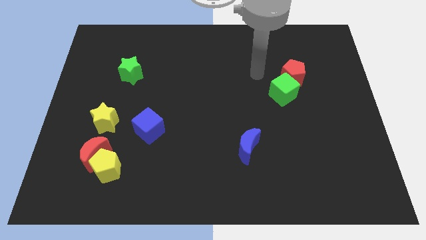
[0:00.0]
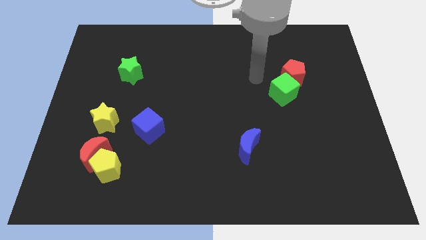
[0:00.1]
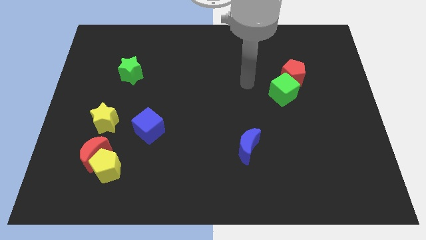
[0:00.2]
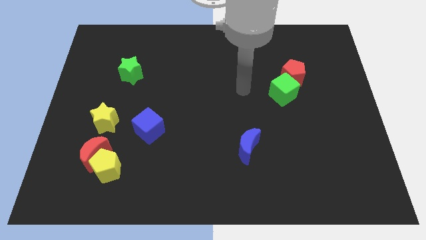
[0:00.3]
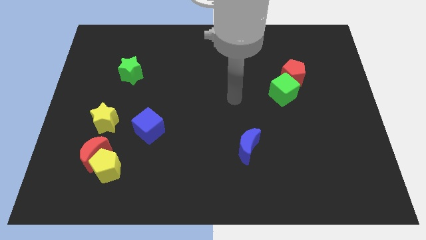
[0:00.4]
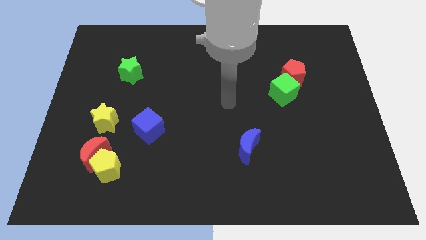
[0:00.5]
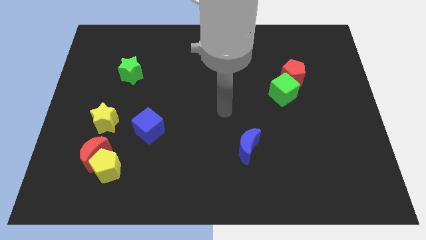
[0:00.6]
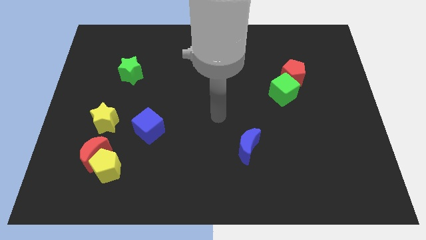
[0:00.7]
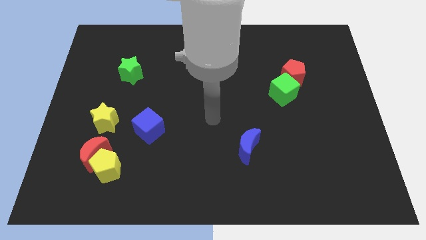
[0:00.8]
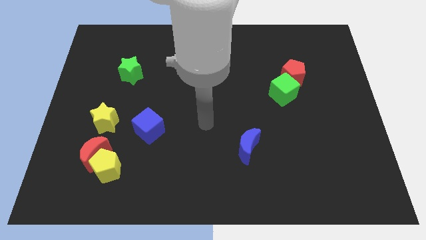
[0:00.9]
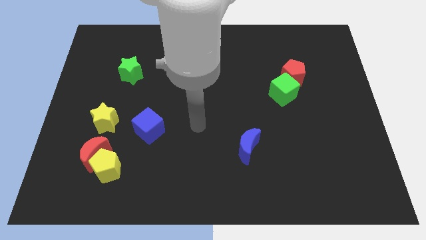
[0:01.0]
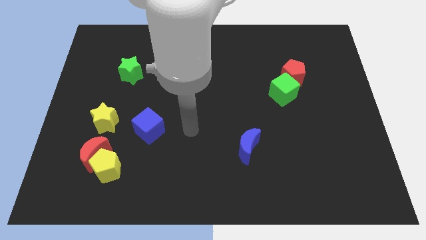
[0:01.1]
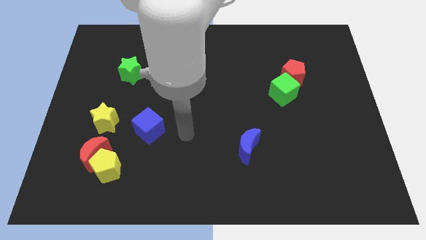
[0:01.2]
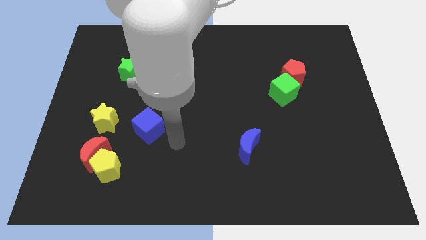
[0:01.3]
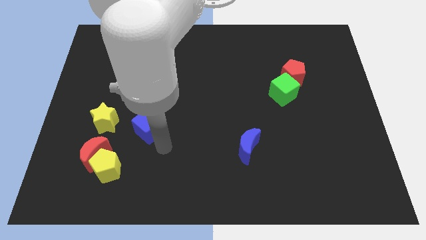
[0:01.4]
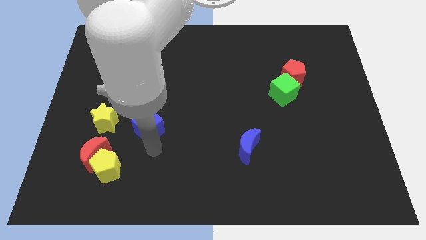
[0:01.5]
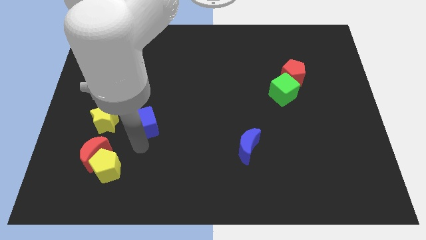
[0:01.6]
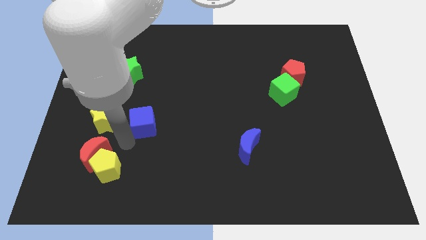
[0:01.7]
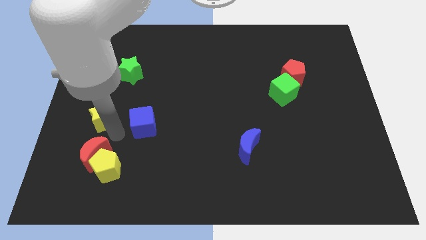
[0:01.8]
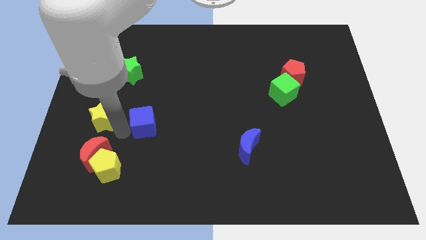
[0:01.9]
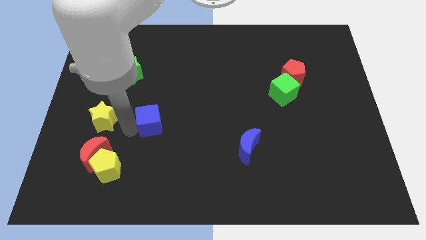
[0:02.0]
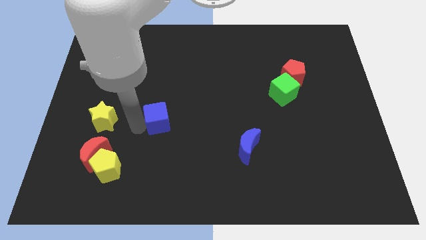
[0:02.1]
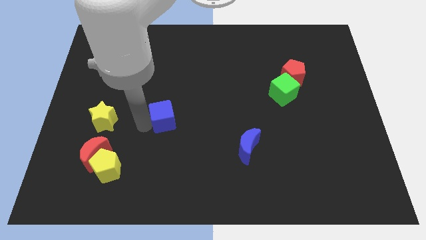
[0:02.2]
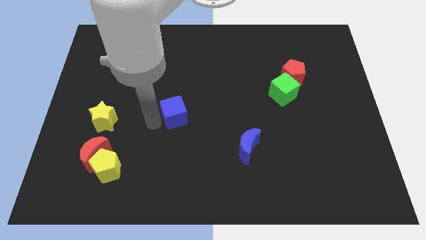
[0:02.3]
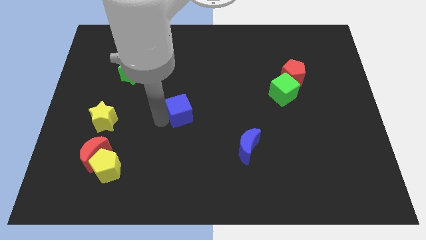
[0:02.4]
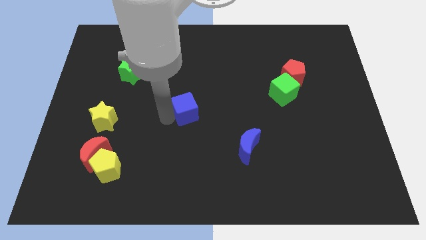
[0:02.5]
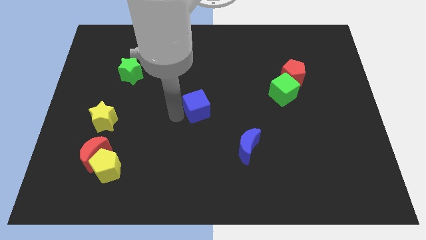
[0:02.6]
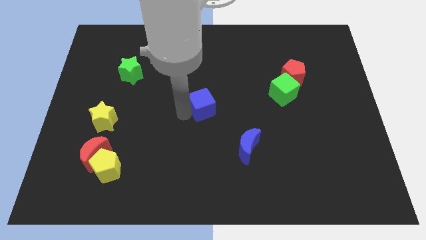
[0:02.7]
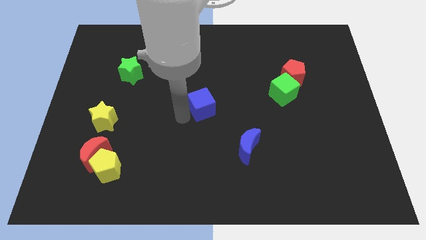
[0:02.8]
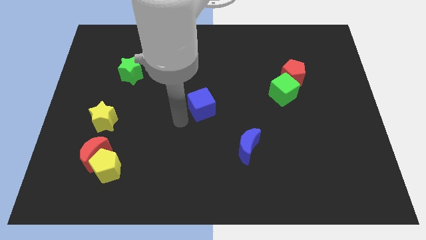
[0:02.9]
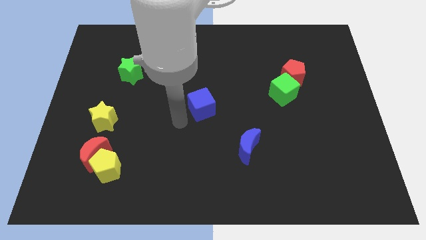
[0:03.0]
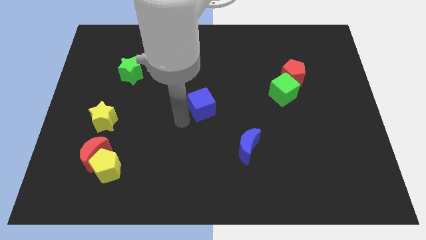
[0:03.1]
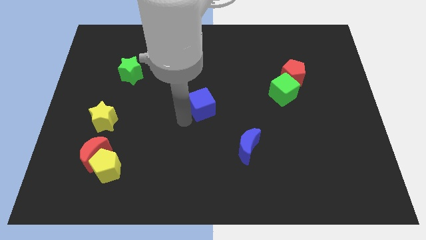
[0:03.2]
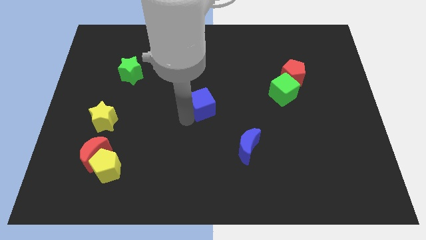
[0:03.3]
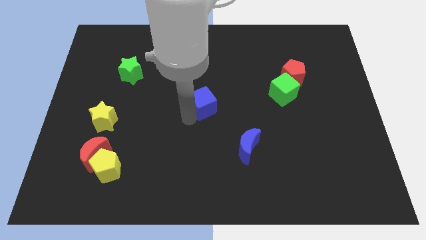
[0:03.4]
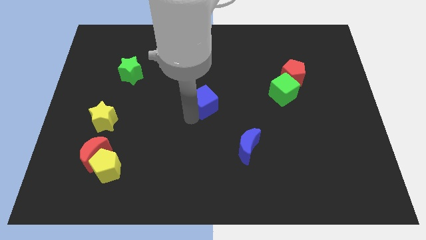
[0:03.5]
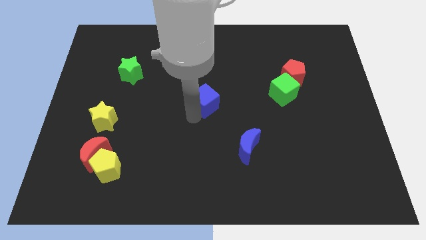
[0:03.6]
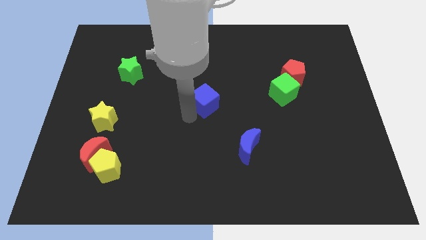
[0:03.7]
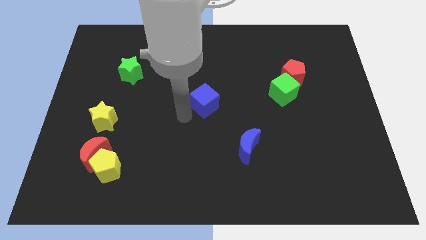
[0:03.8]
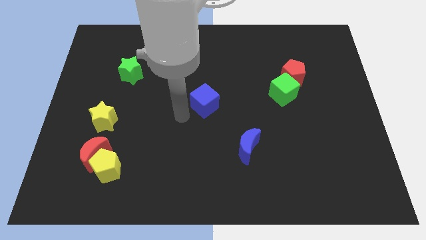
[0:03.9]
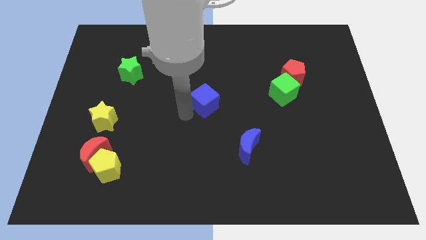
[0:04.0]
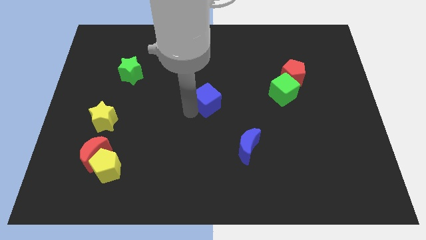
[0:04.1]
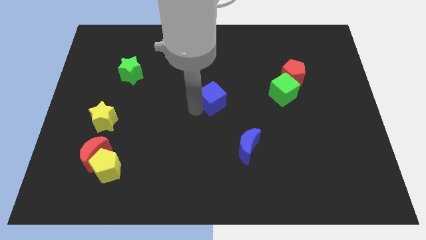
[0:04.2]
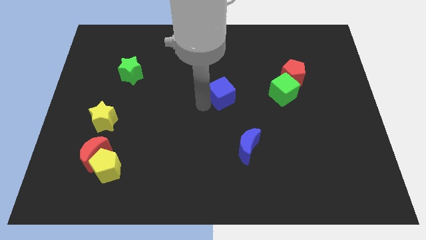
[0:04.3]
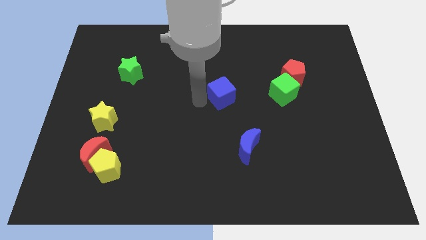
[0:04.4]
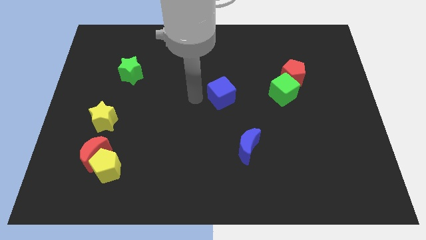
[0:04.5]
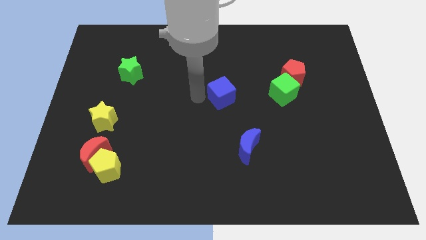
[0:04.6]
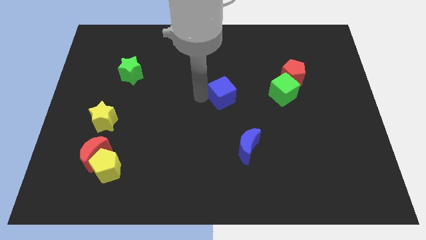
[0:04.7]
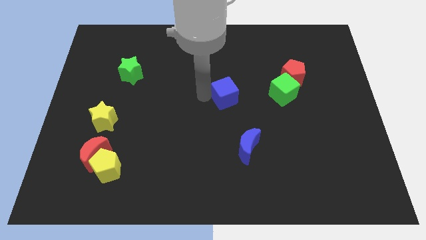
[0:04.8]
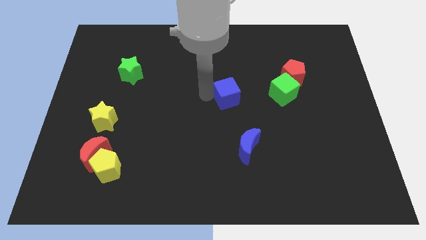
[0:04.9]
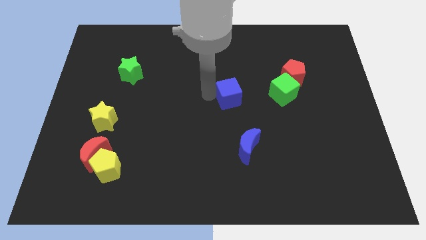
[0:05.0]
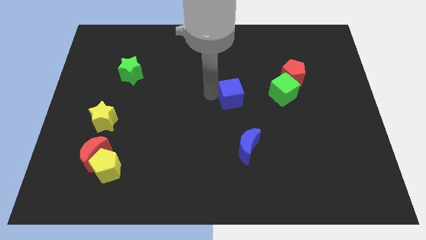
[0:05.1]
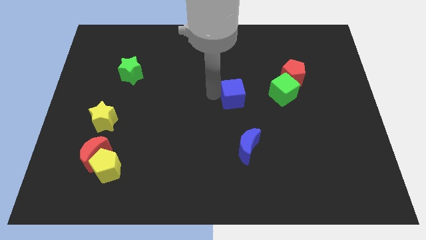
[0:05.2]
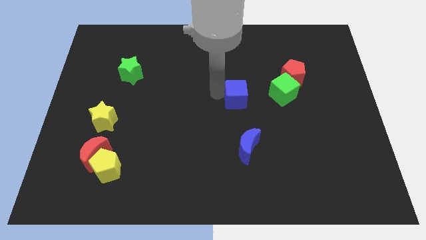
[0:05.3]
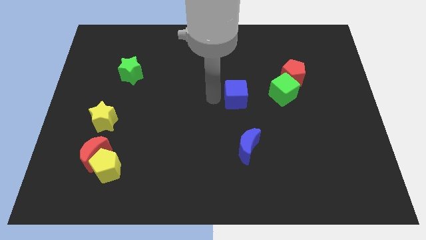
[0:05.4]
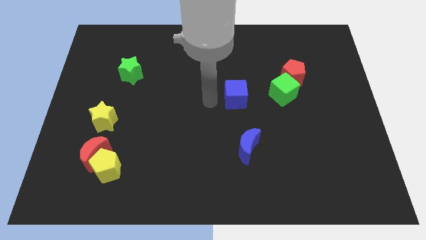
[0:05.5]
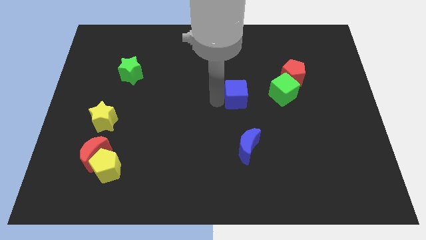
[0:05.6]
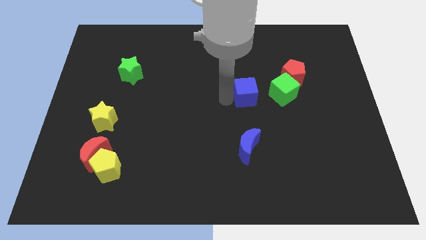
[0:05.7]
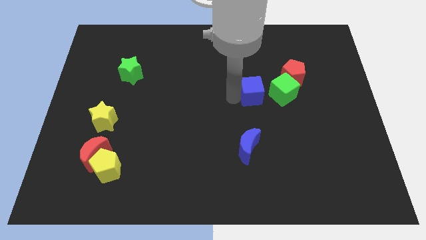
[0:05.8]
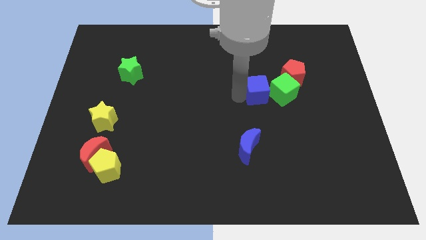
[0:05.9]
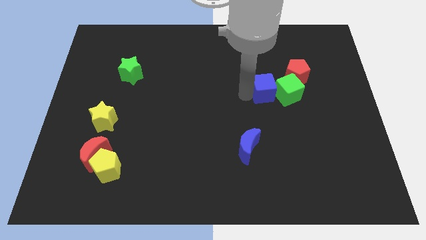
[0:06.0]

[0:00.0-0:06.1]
slide the blue cube close to the green cube

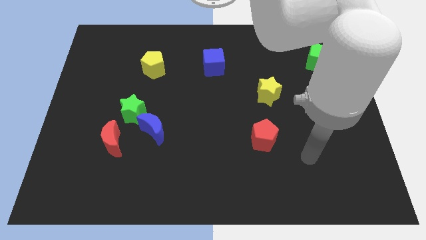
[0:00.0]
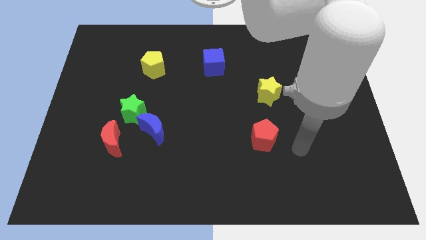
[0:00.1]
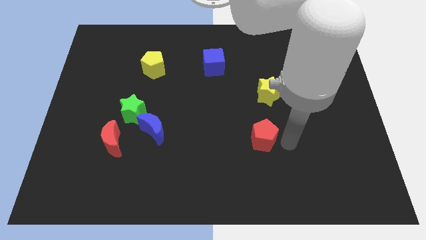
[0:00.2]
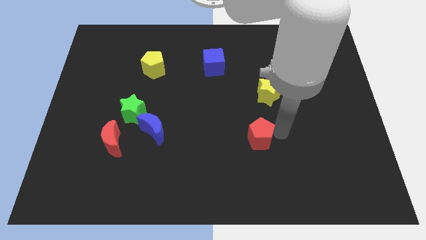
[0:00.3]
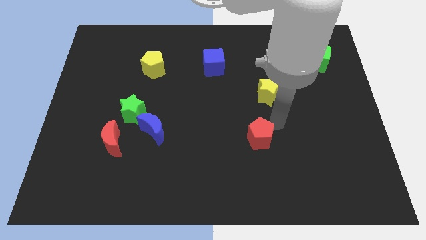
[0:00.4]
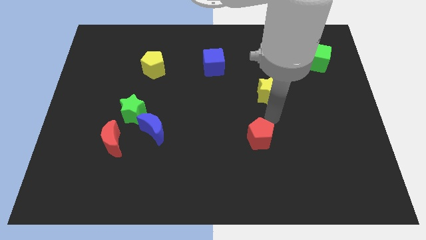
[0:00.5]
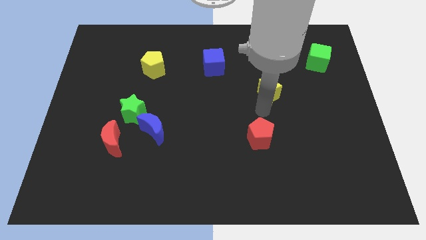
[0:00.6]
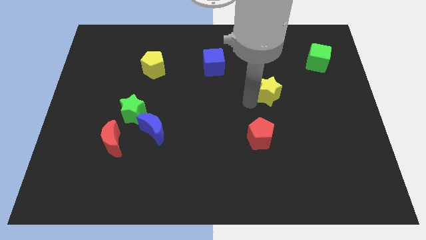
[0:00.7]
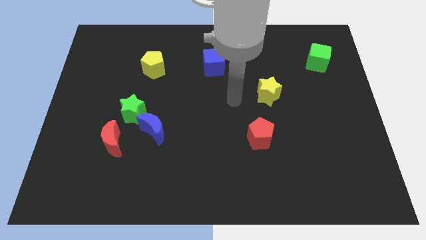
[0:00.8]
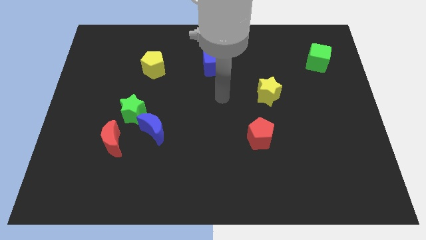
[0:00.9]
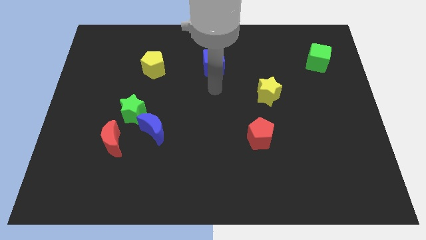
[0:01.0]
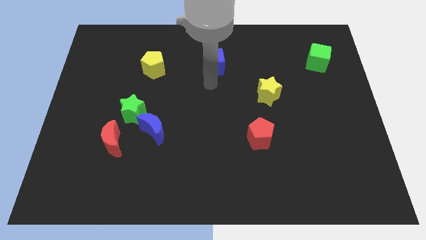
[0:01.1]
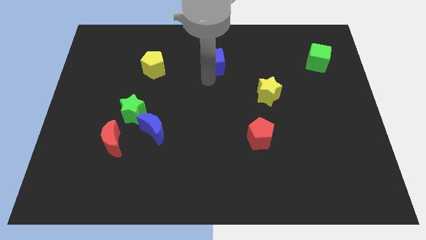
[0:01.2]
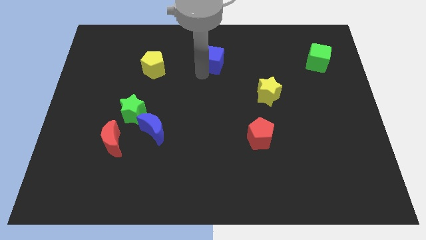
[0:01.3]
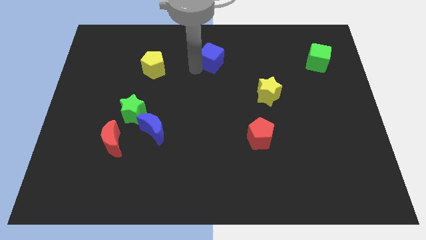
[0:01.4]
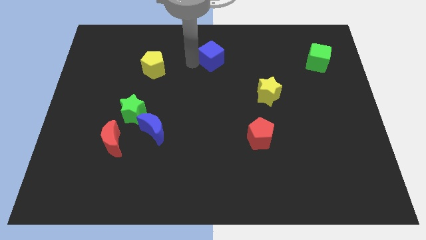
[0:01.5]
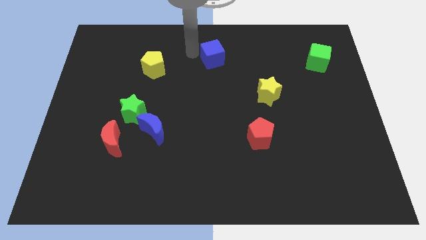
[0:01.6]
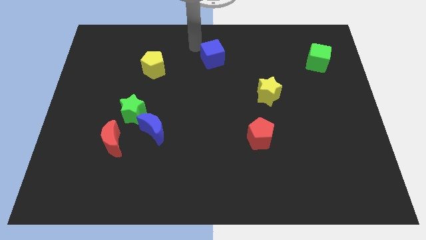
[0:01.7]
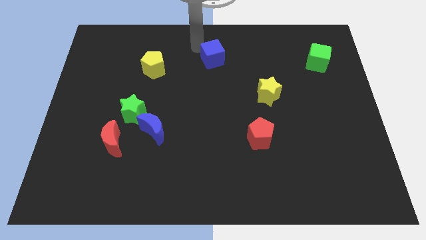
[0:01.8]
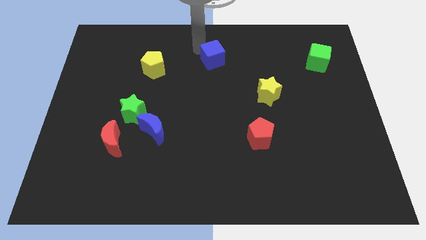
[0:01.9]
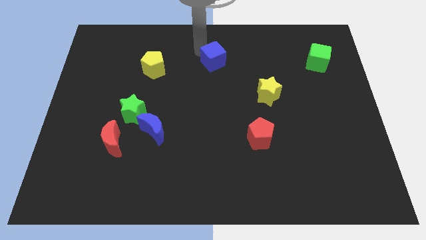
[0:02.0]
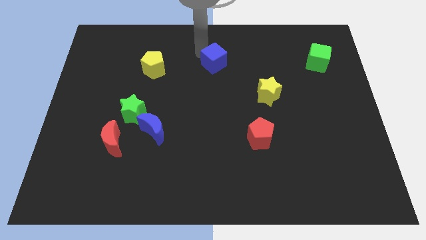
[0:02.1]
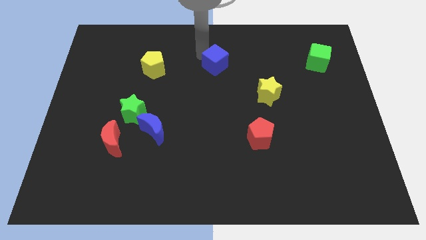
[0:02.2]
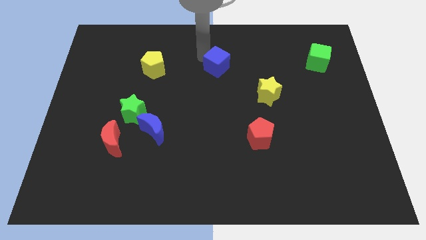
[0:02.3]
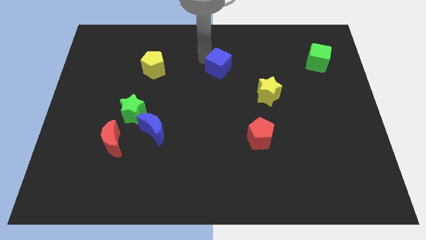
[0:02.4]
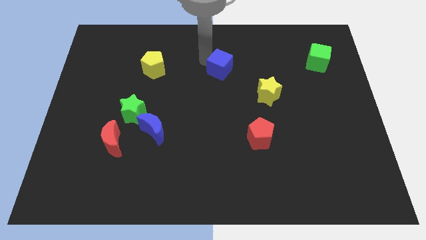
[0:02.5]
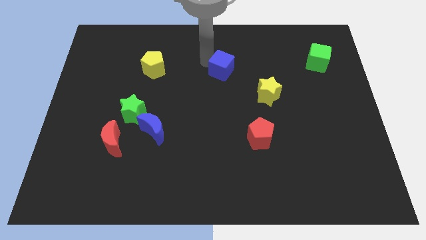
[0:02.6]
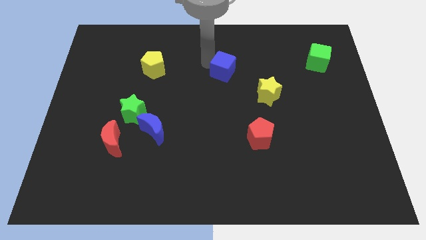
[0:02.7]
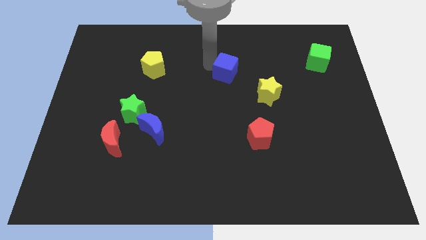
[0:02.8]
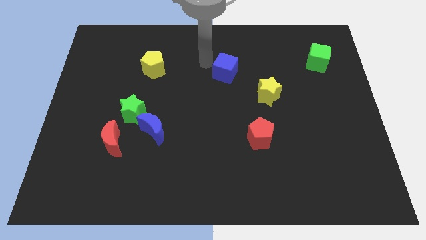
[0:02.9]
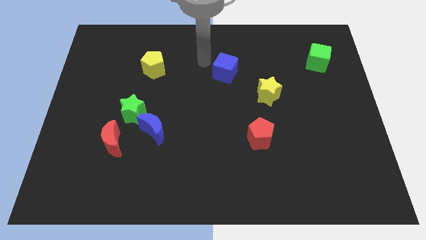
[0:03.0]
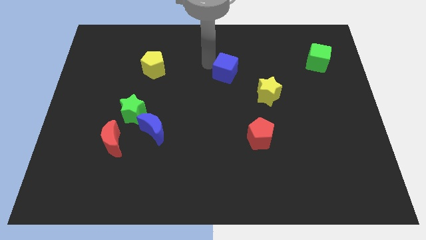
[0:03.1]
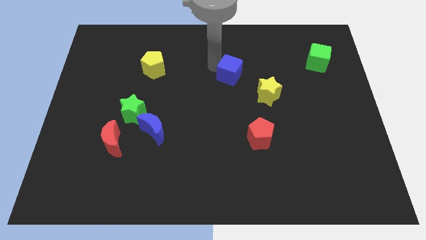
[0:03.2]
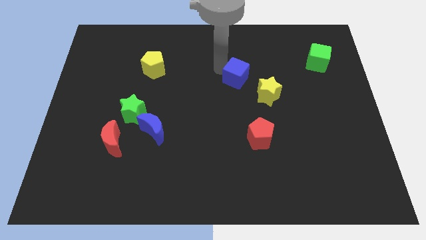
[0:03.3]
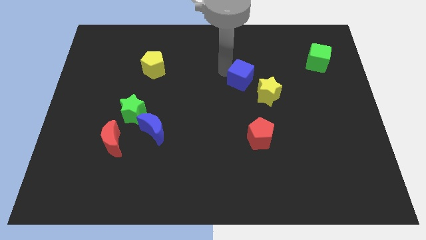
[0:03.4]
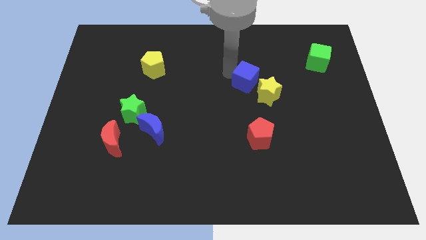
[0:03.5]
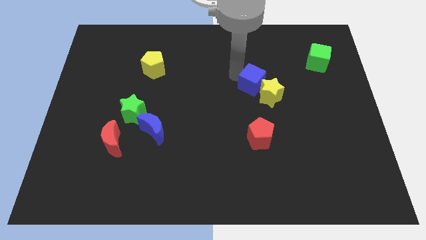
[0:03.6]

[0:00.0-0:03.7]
push the blue cube close to the yellow star
